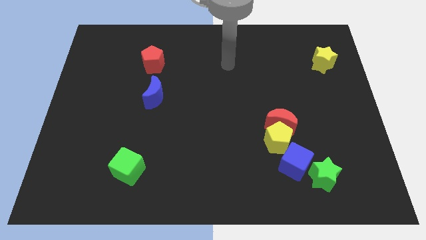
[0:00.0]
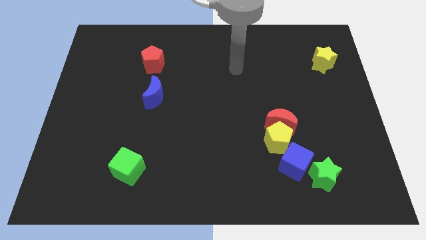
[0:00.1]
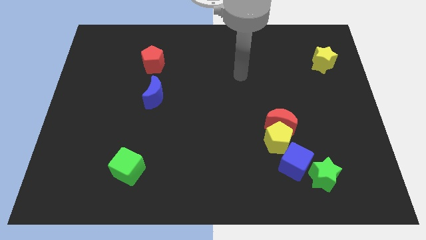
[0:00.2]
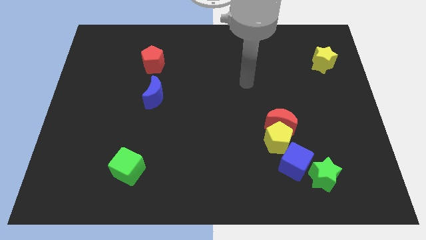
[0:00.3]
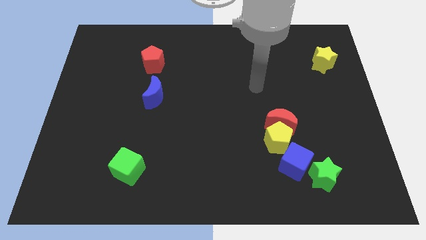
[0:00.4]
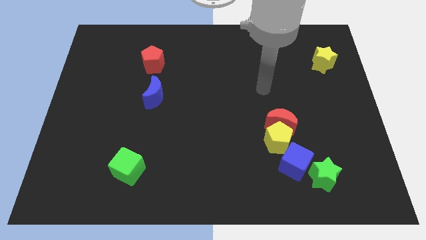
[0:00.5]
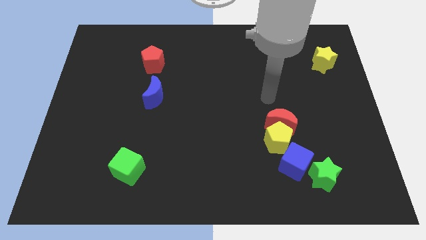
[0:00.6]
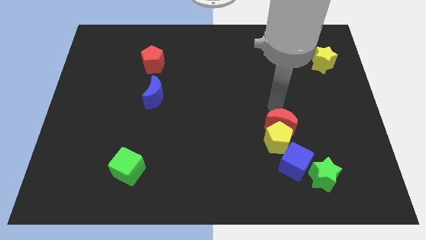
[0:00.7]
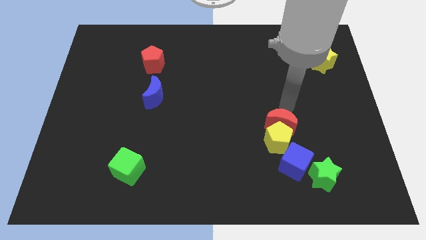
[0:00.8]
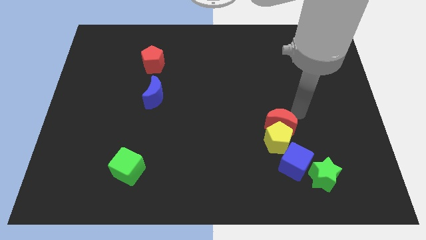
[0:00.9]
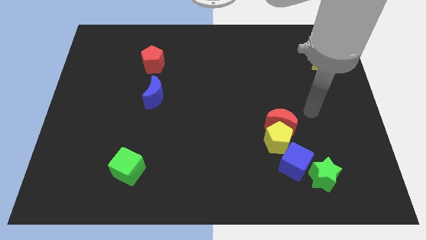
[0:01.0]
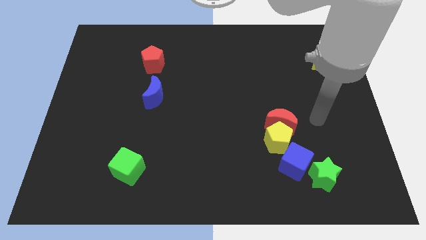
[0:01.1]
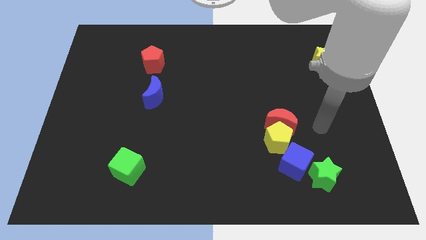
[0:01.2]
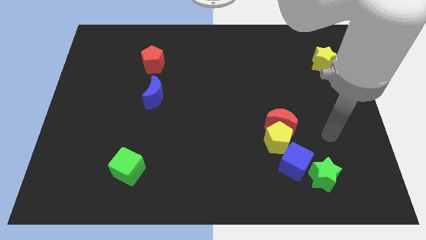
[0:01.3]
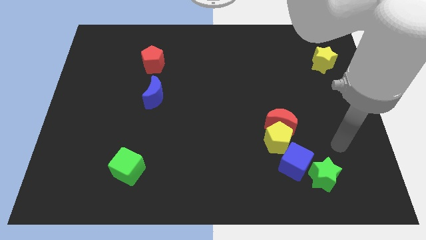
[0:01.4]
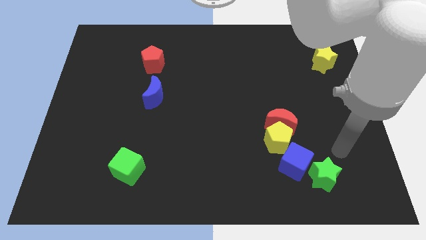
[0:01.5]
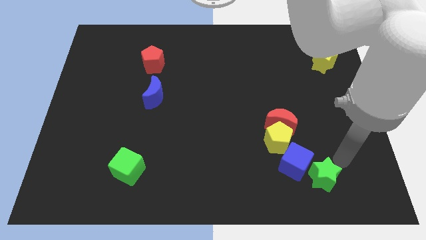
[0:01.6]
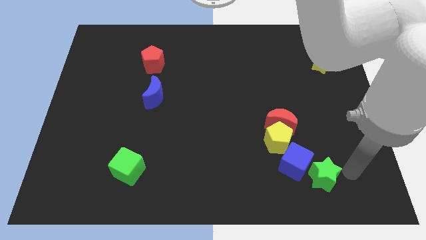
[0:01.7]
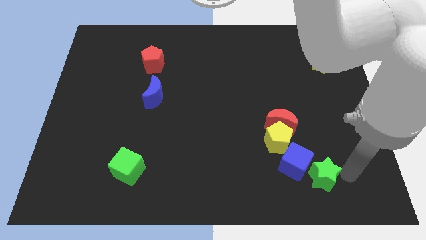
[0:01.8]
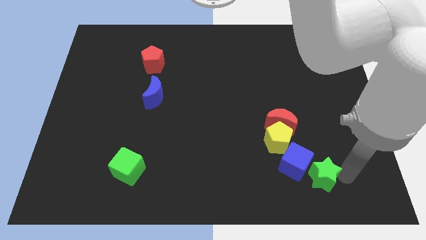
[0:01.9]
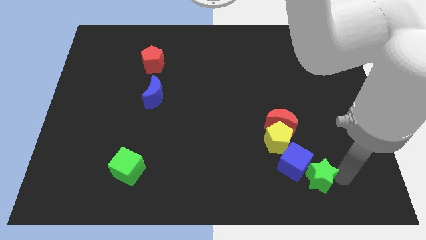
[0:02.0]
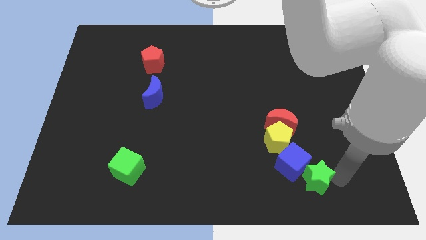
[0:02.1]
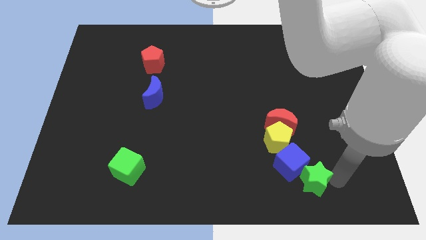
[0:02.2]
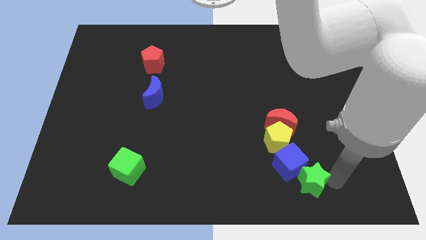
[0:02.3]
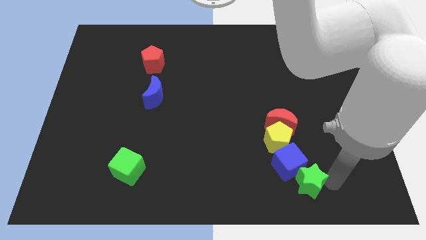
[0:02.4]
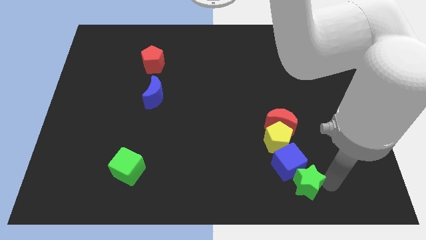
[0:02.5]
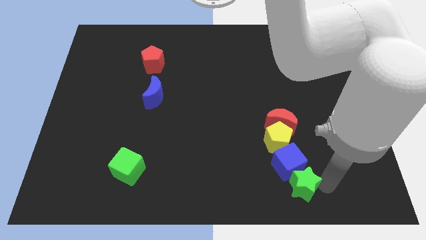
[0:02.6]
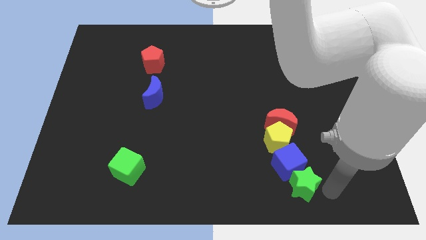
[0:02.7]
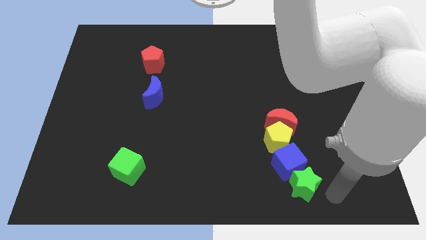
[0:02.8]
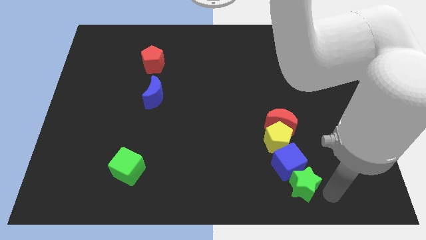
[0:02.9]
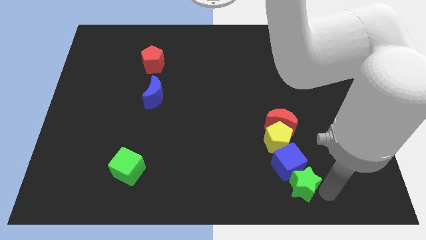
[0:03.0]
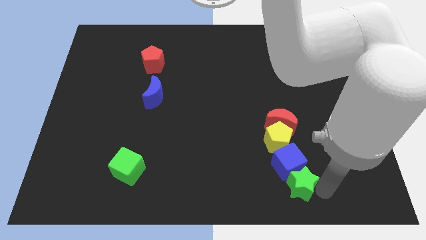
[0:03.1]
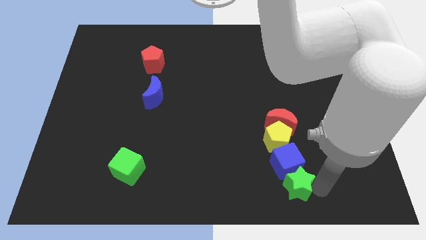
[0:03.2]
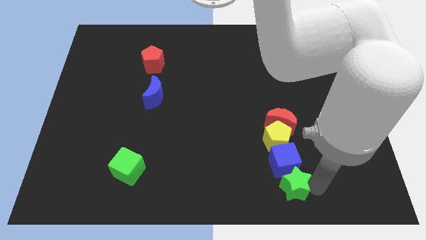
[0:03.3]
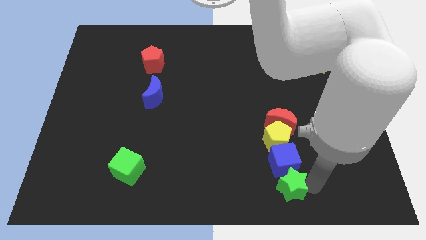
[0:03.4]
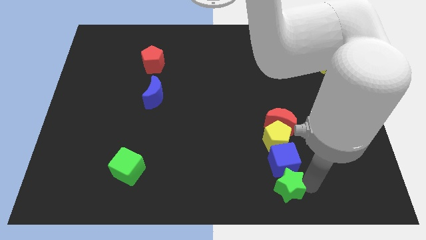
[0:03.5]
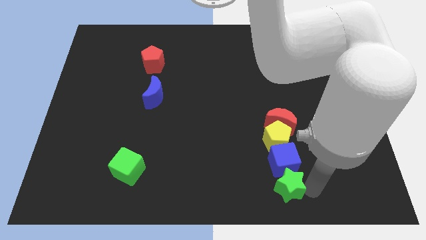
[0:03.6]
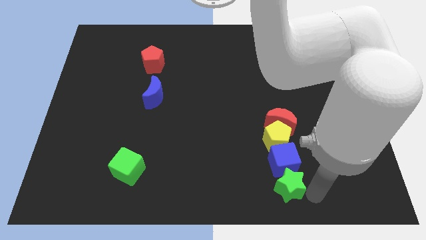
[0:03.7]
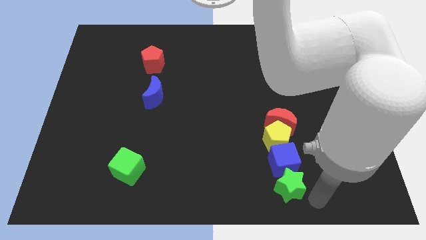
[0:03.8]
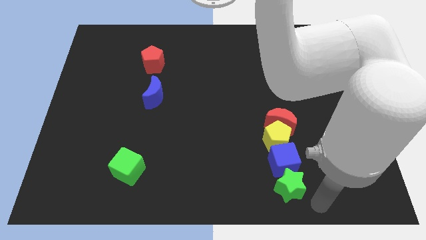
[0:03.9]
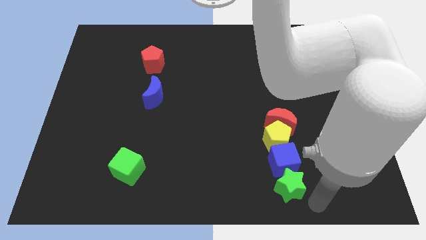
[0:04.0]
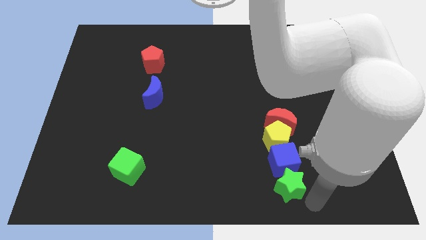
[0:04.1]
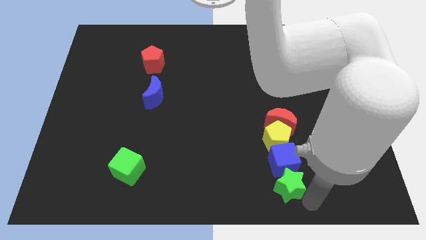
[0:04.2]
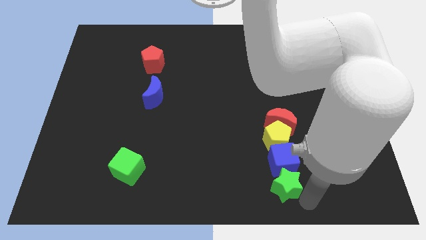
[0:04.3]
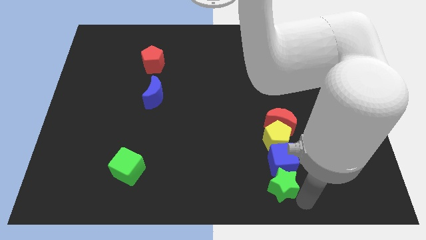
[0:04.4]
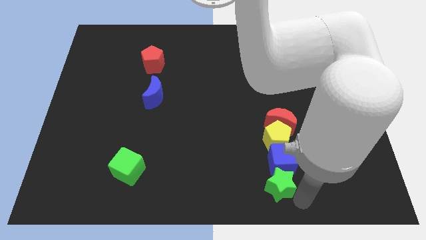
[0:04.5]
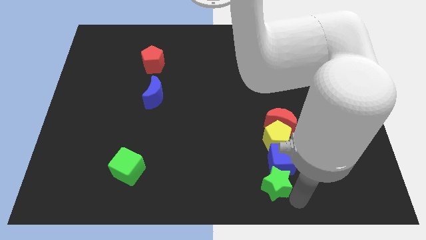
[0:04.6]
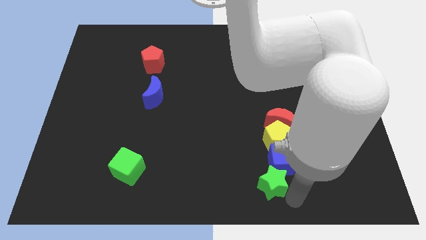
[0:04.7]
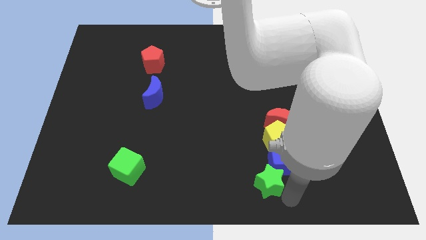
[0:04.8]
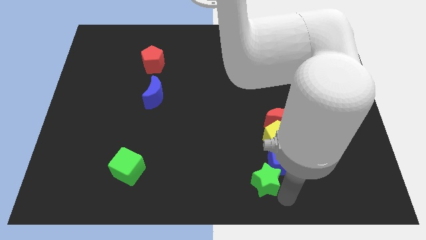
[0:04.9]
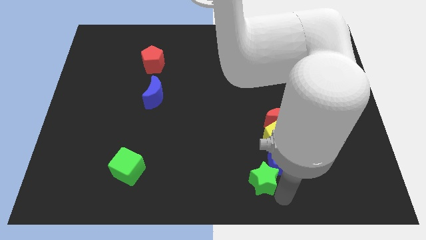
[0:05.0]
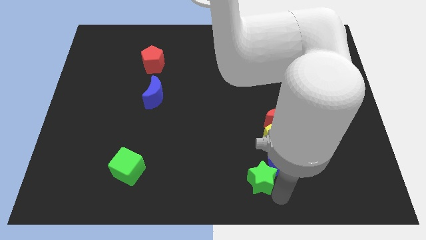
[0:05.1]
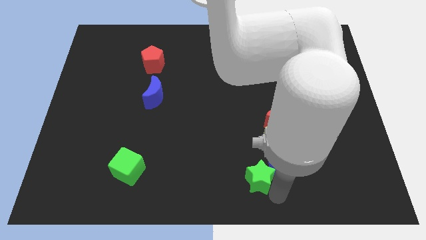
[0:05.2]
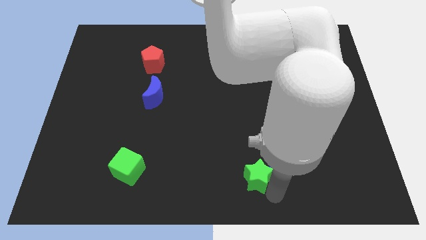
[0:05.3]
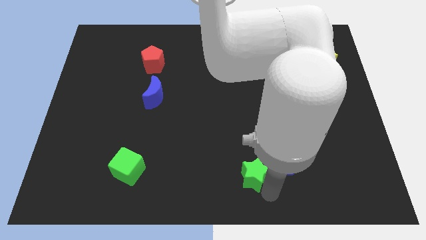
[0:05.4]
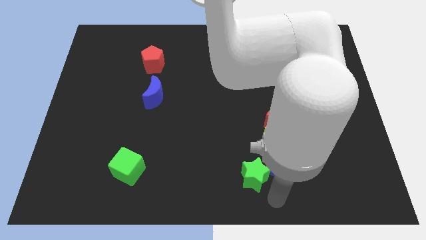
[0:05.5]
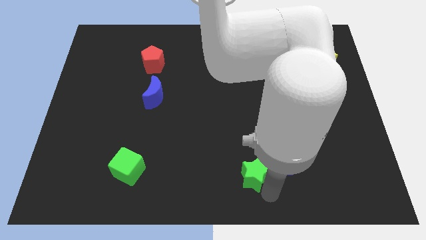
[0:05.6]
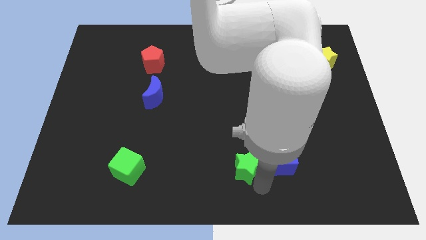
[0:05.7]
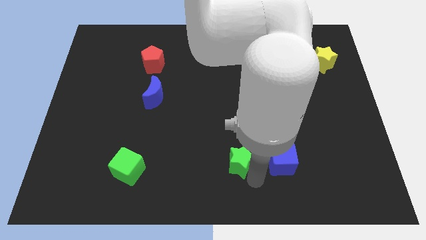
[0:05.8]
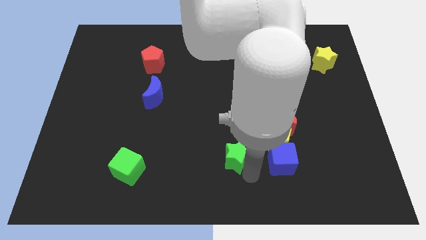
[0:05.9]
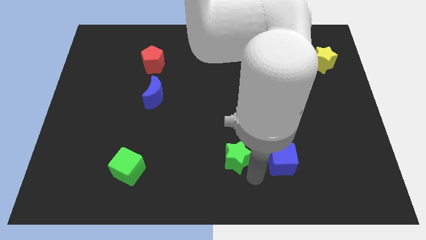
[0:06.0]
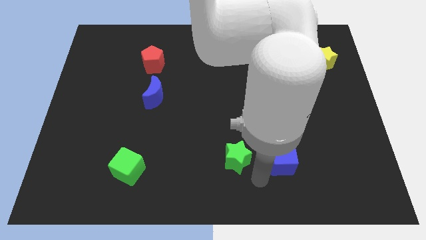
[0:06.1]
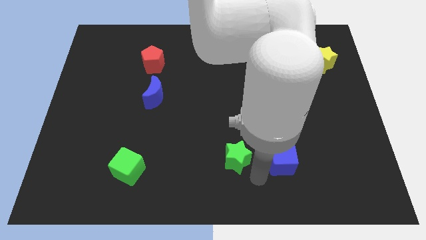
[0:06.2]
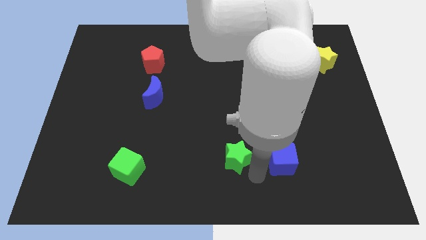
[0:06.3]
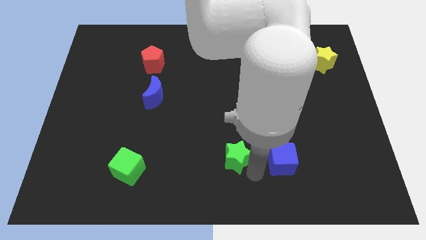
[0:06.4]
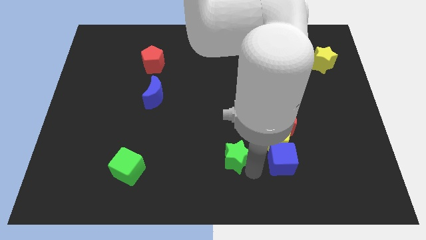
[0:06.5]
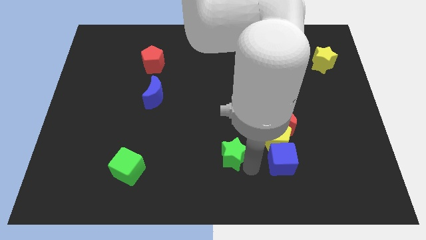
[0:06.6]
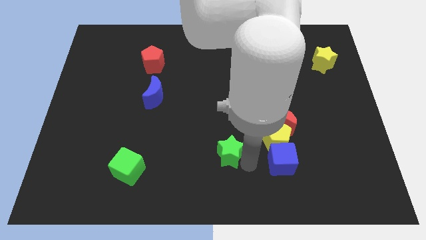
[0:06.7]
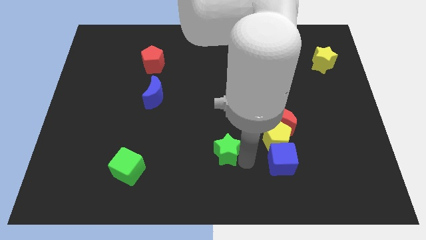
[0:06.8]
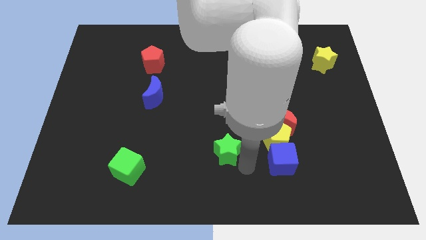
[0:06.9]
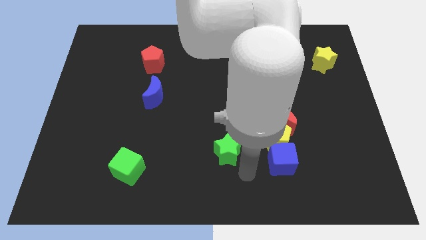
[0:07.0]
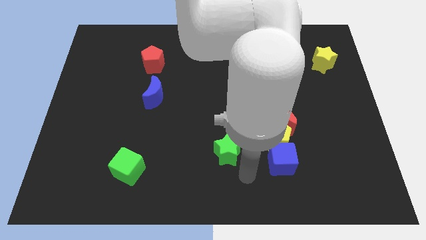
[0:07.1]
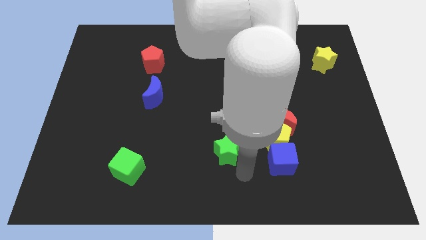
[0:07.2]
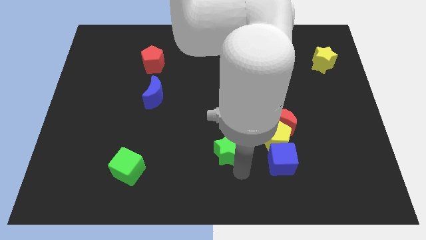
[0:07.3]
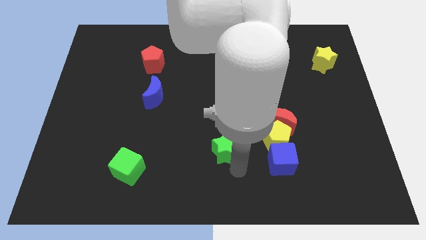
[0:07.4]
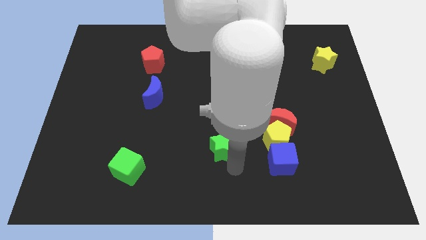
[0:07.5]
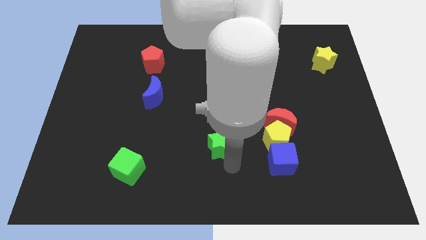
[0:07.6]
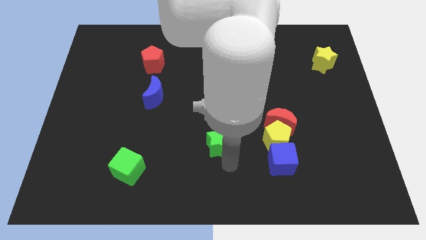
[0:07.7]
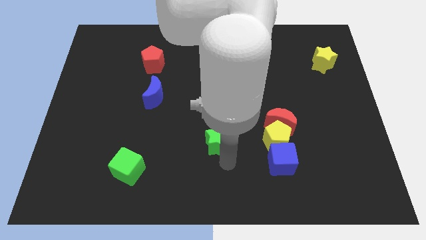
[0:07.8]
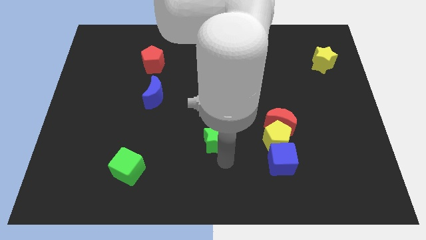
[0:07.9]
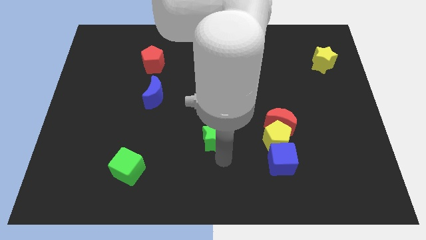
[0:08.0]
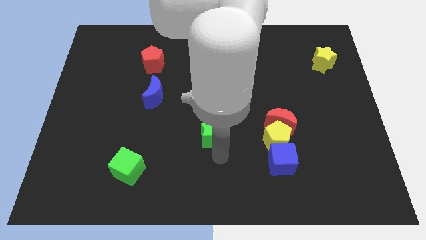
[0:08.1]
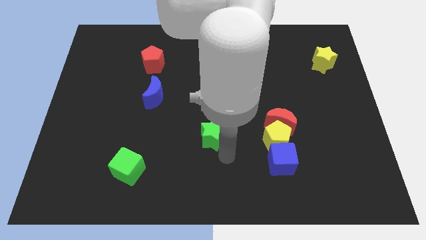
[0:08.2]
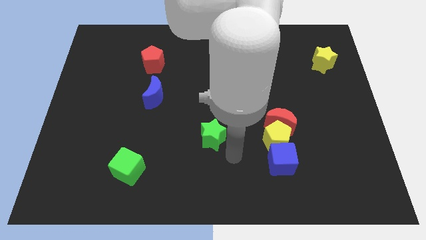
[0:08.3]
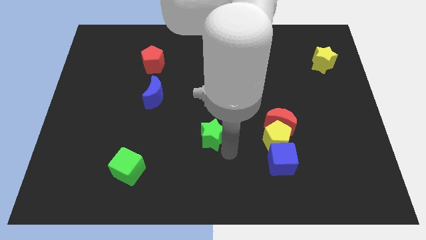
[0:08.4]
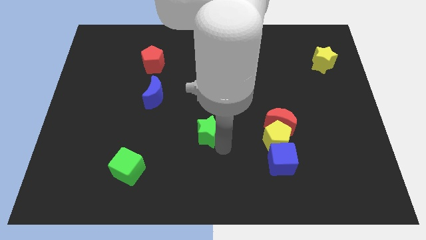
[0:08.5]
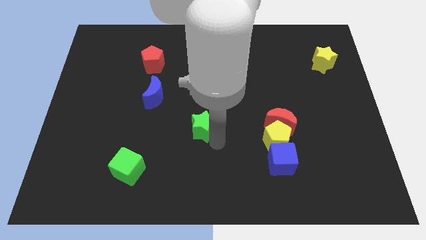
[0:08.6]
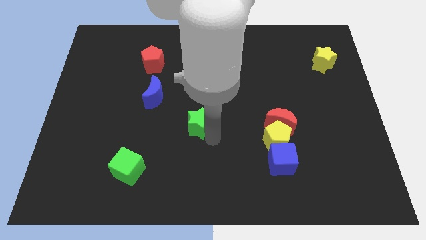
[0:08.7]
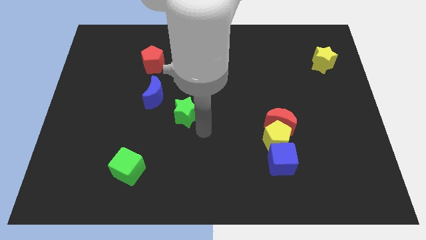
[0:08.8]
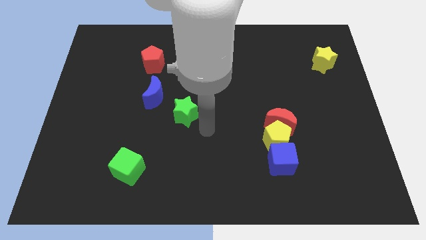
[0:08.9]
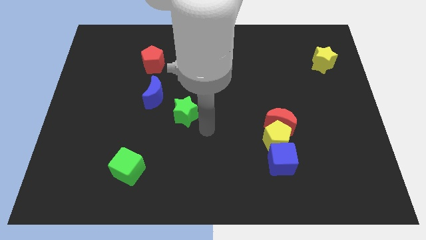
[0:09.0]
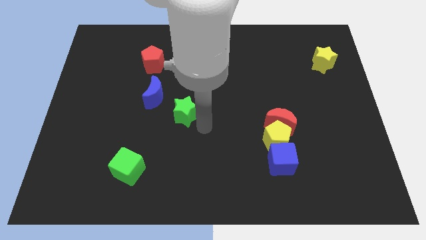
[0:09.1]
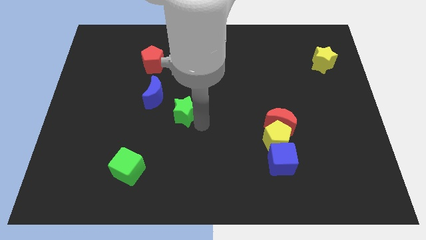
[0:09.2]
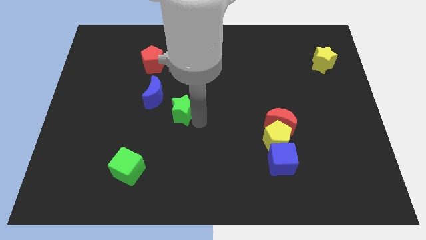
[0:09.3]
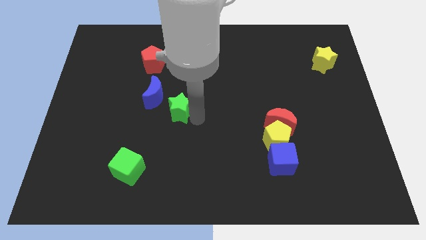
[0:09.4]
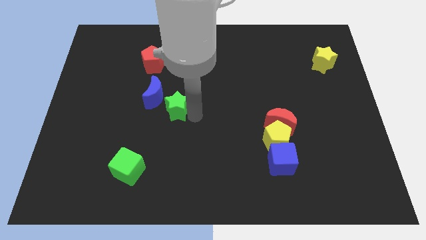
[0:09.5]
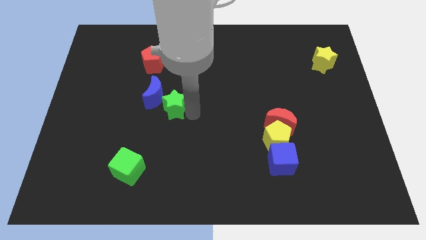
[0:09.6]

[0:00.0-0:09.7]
move the green star to the blue moon
